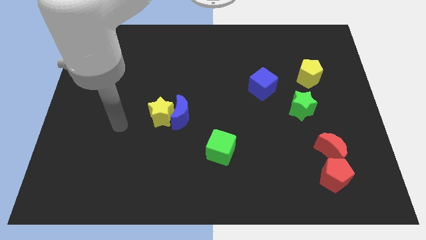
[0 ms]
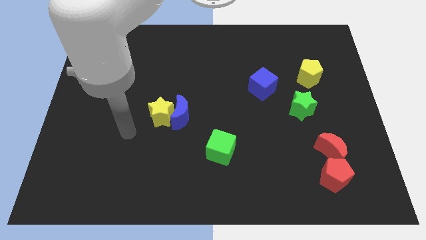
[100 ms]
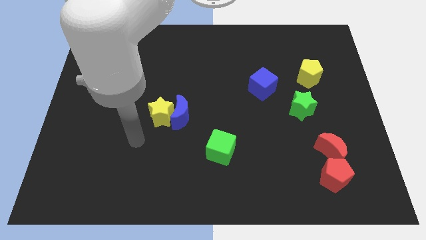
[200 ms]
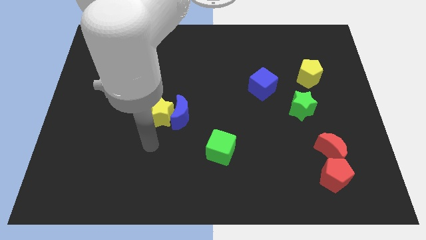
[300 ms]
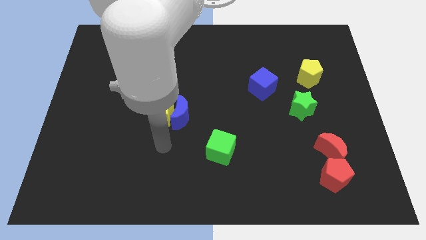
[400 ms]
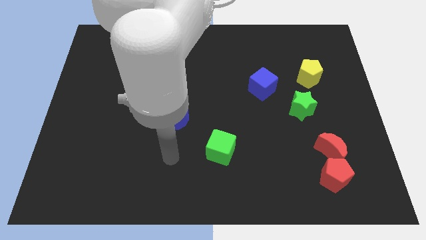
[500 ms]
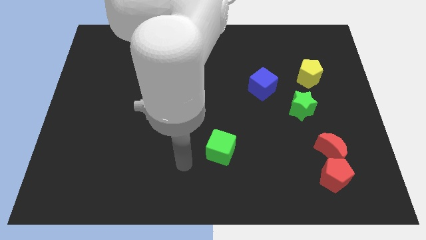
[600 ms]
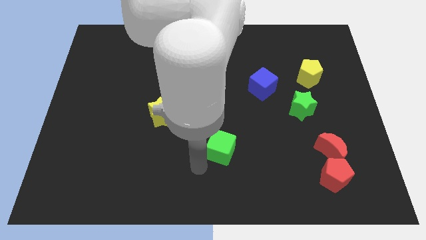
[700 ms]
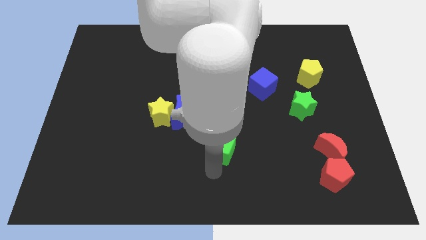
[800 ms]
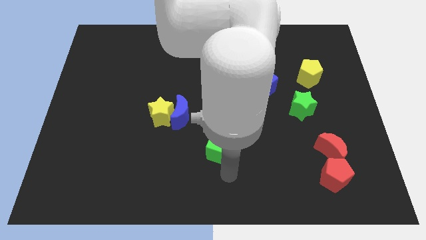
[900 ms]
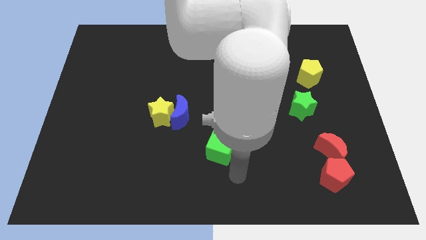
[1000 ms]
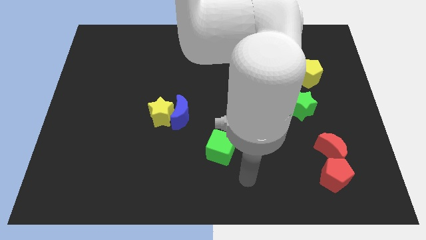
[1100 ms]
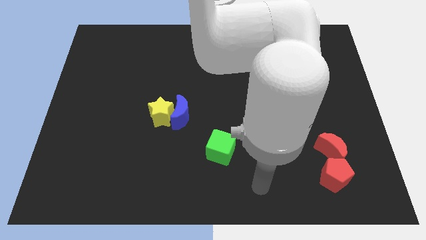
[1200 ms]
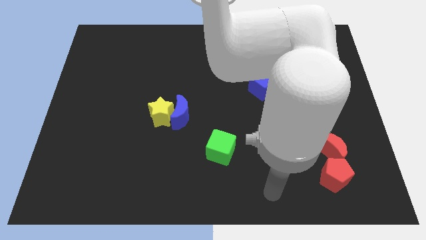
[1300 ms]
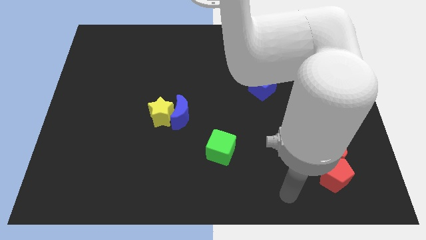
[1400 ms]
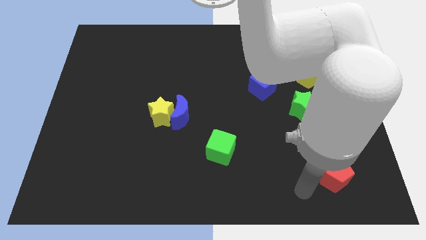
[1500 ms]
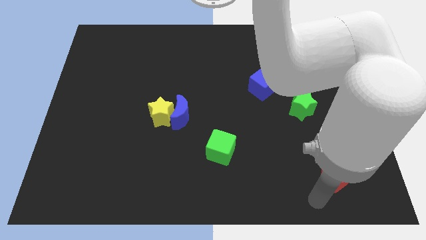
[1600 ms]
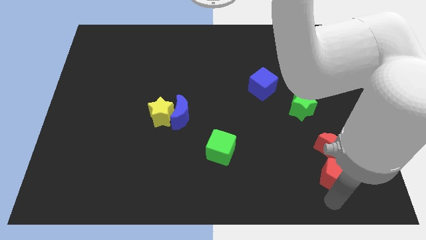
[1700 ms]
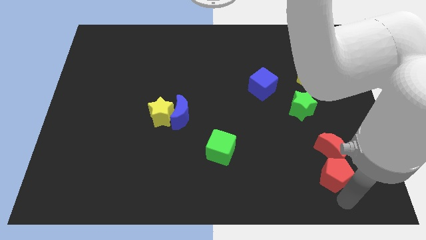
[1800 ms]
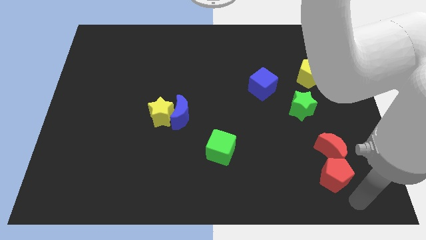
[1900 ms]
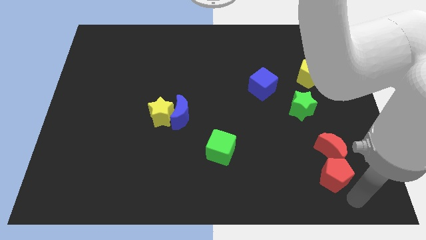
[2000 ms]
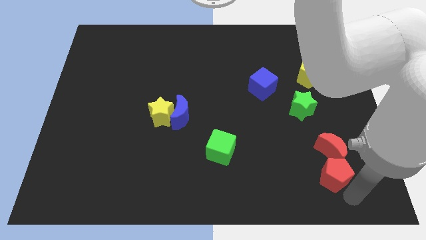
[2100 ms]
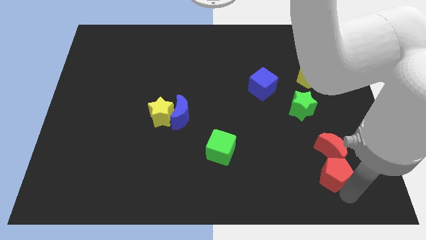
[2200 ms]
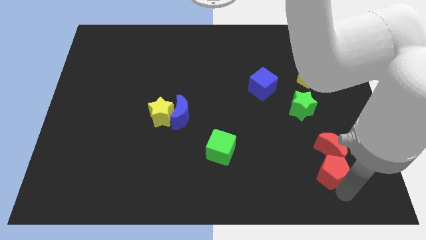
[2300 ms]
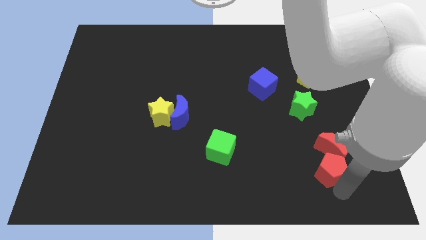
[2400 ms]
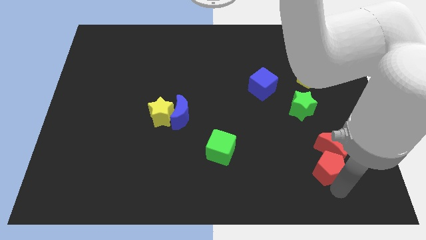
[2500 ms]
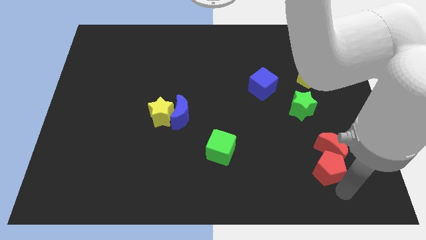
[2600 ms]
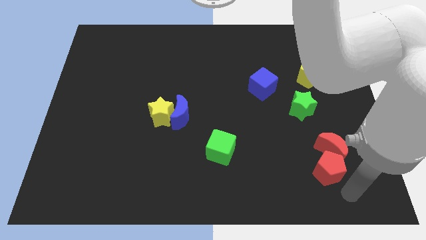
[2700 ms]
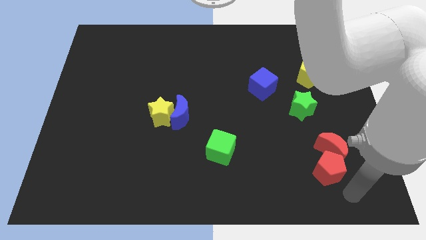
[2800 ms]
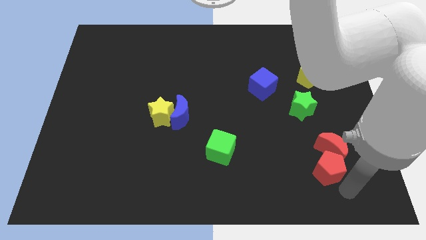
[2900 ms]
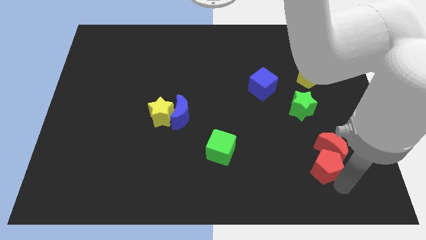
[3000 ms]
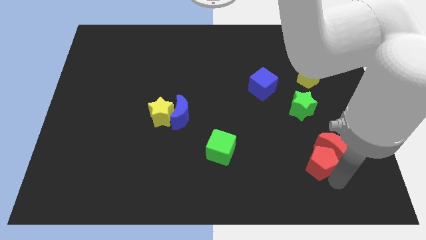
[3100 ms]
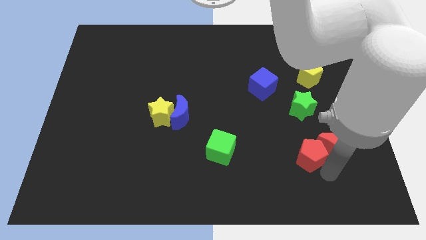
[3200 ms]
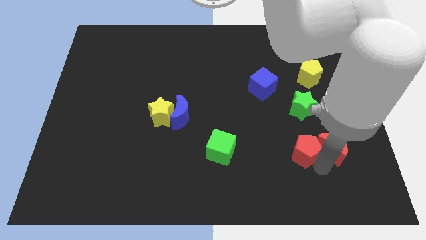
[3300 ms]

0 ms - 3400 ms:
slide the red pentagon a bit up and to the left

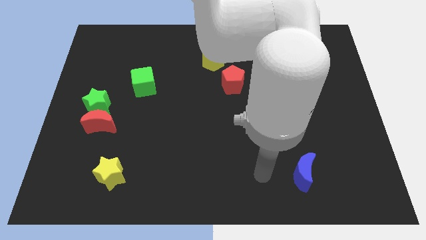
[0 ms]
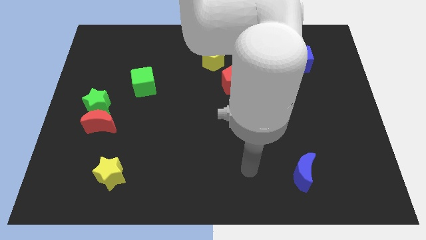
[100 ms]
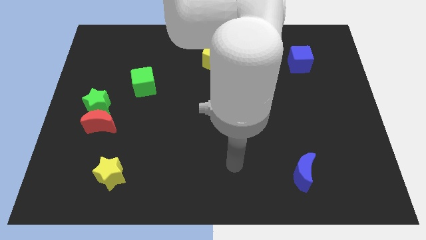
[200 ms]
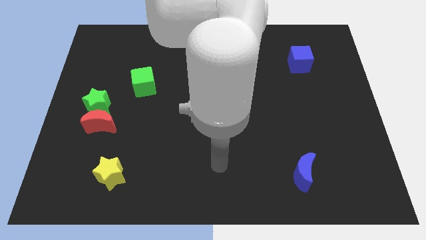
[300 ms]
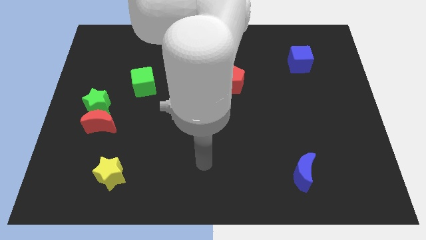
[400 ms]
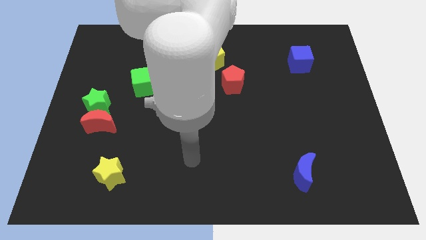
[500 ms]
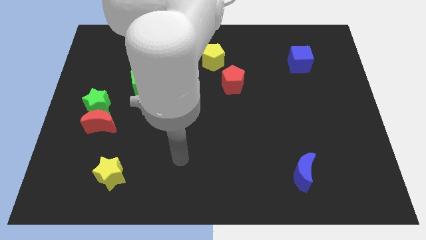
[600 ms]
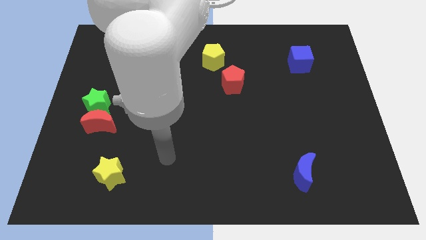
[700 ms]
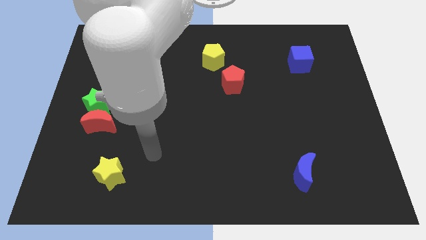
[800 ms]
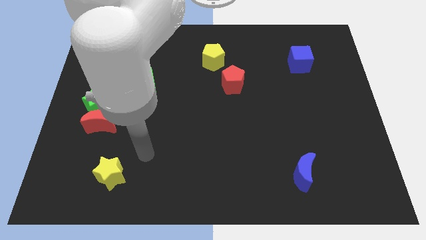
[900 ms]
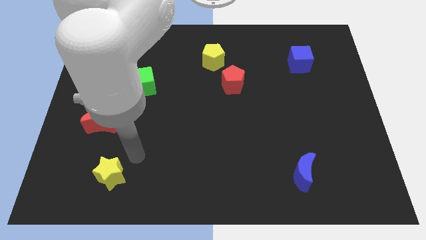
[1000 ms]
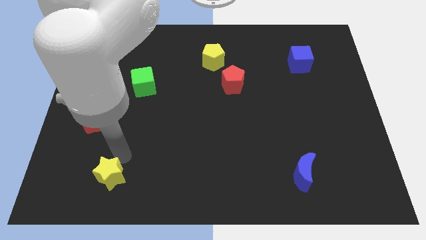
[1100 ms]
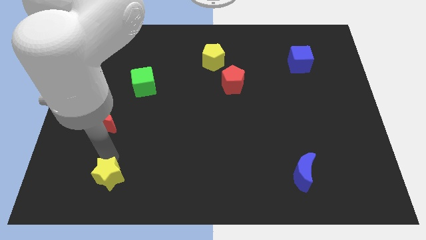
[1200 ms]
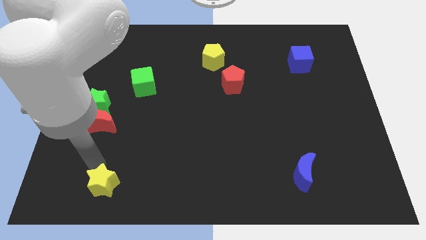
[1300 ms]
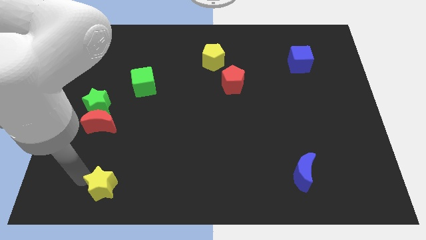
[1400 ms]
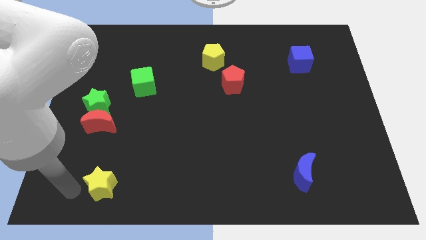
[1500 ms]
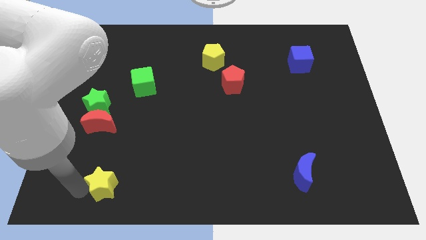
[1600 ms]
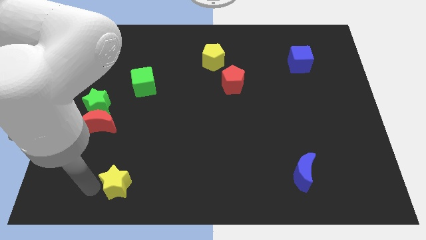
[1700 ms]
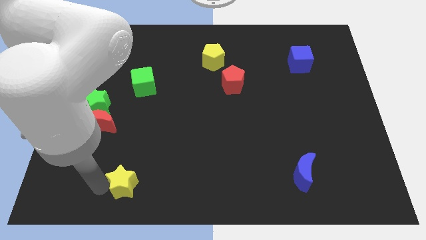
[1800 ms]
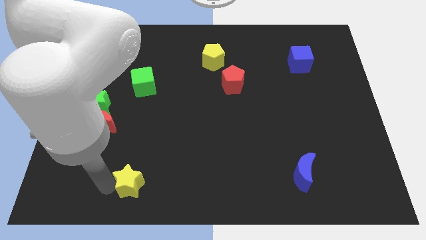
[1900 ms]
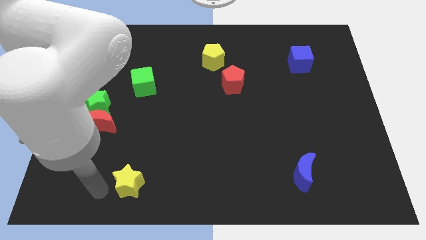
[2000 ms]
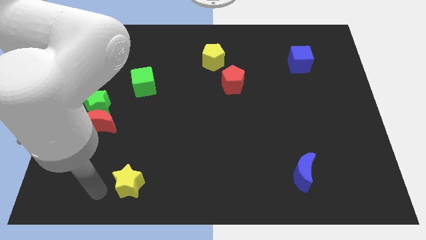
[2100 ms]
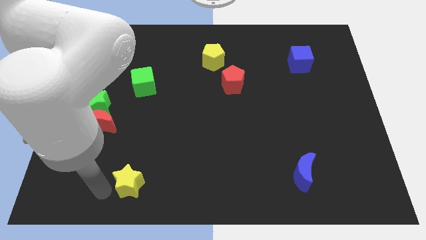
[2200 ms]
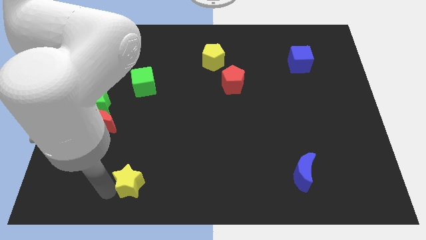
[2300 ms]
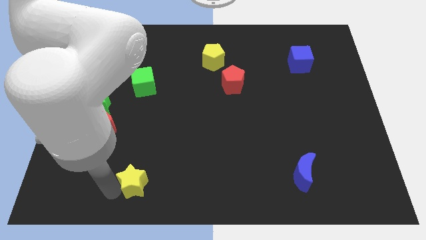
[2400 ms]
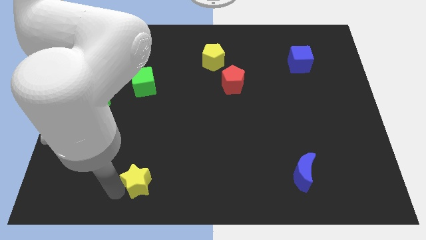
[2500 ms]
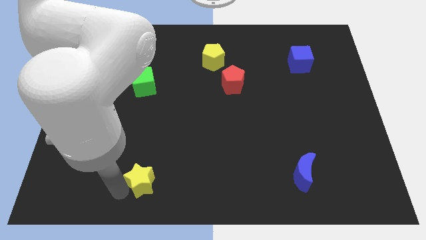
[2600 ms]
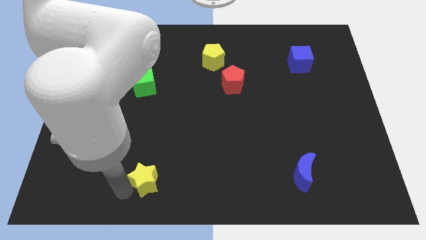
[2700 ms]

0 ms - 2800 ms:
push the yellow star right a little bit

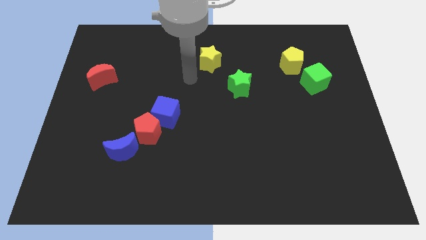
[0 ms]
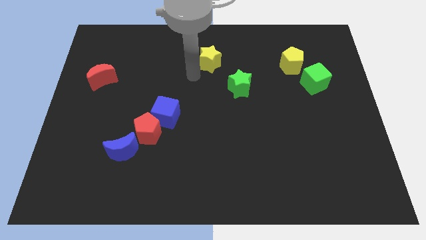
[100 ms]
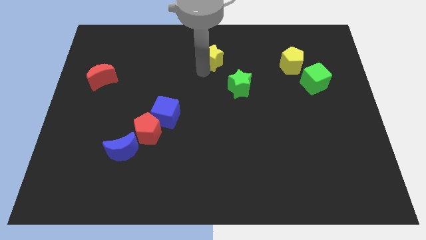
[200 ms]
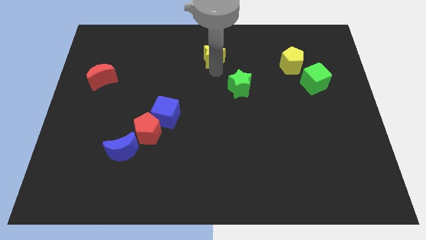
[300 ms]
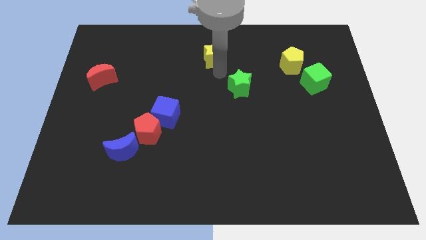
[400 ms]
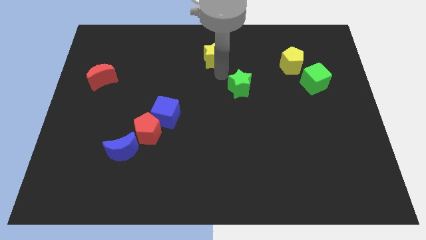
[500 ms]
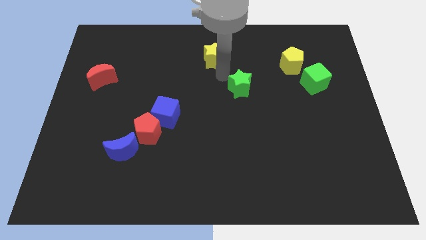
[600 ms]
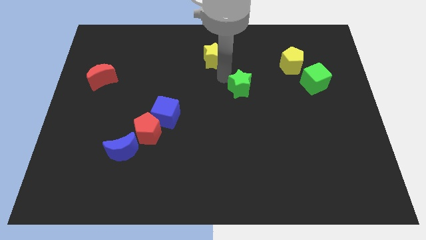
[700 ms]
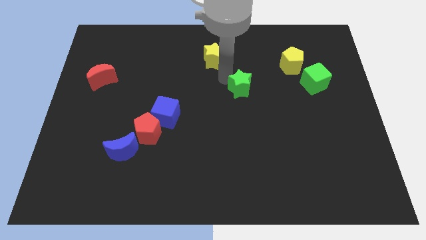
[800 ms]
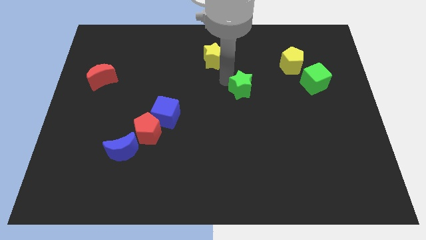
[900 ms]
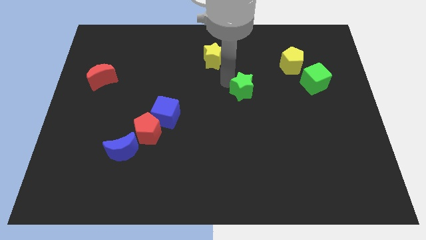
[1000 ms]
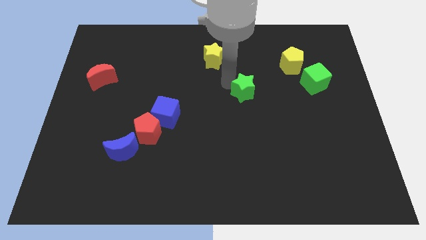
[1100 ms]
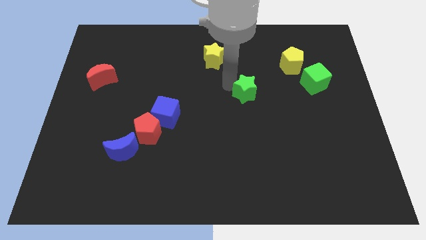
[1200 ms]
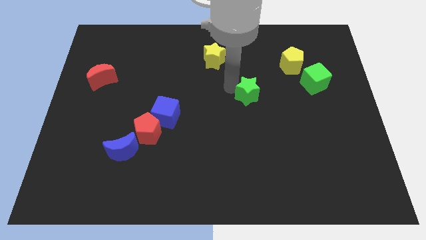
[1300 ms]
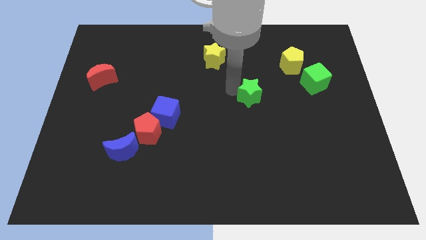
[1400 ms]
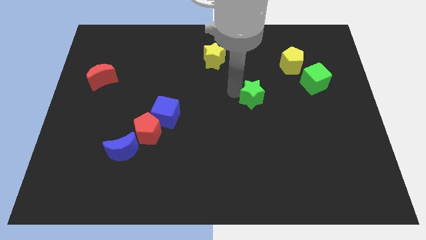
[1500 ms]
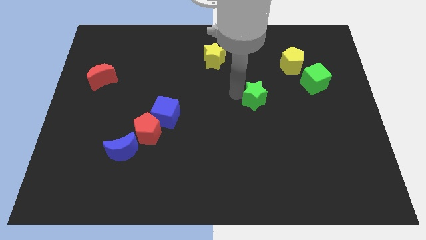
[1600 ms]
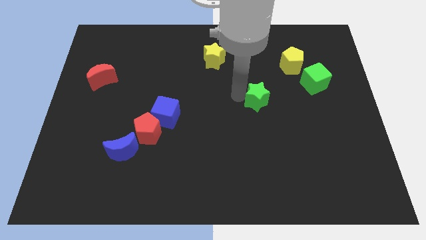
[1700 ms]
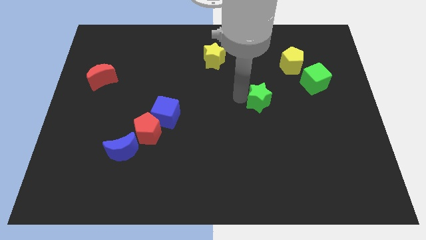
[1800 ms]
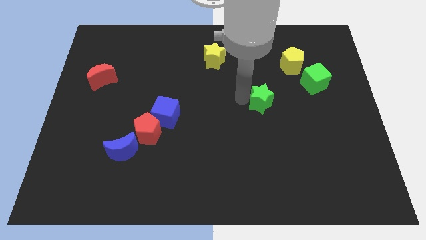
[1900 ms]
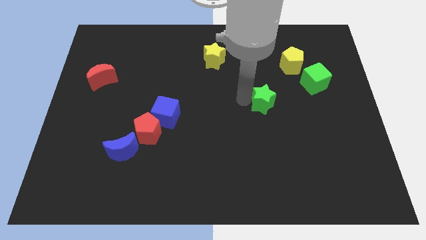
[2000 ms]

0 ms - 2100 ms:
push the green star a little bit down and to the right diagonally
